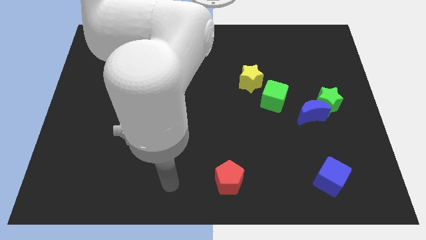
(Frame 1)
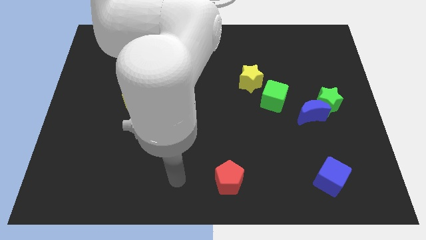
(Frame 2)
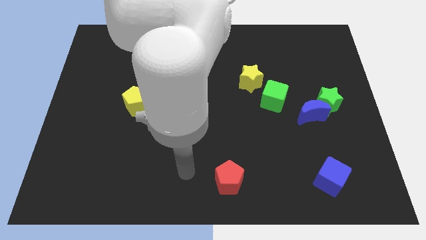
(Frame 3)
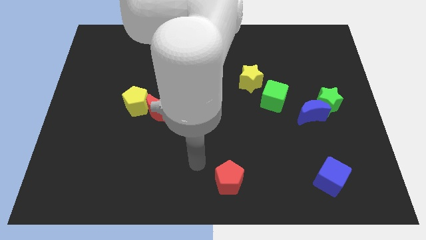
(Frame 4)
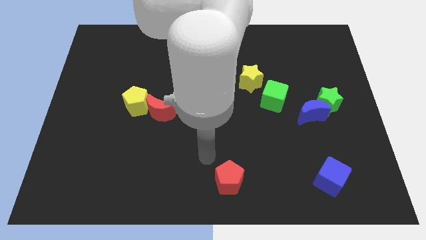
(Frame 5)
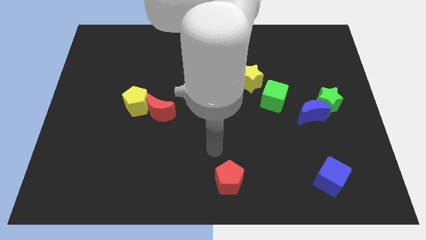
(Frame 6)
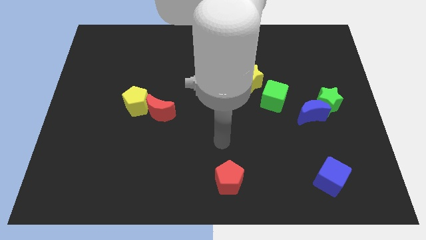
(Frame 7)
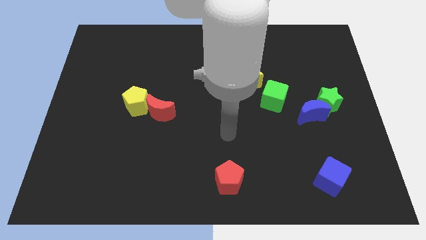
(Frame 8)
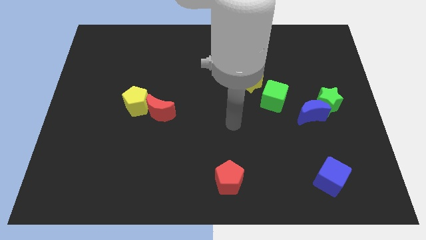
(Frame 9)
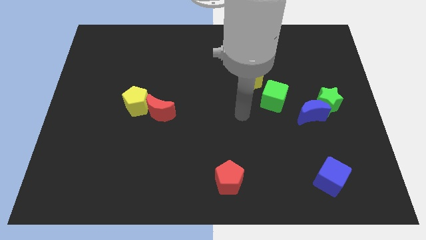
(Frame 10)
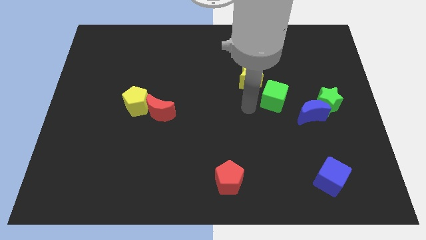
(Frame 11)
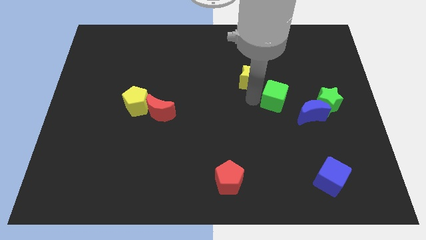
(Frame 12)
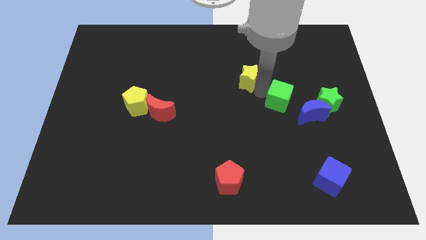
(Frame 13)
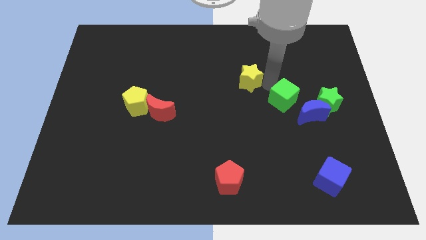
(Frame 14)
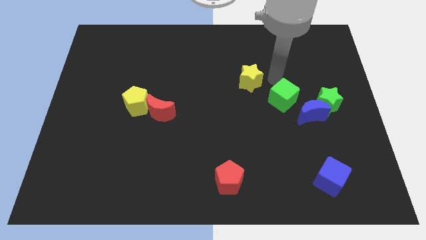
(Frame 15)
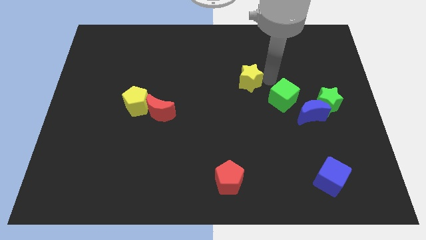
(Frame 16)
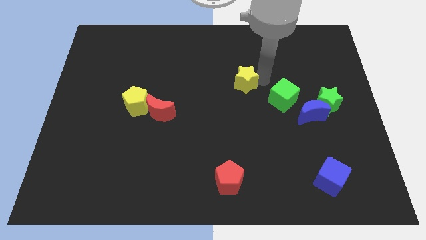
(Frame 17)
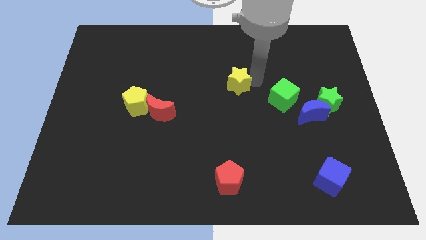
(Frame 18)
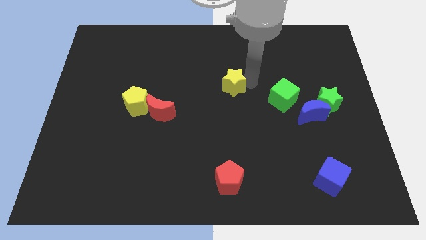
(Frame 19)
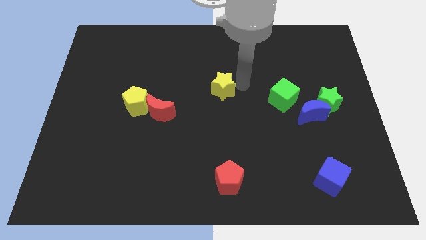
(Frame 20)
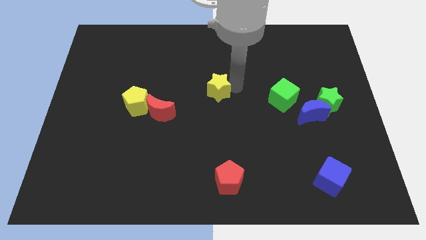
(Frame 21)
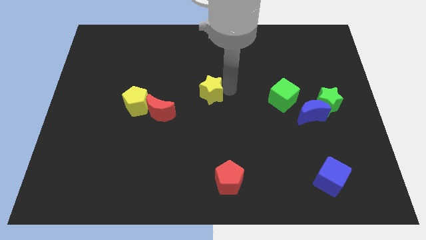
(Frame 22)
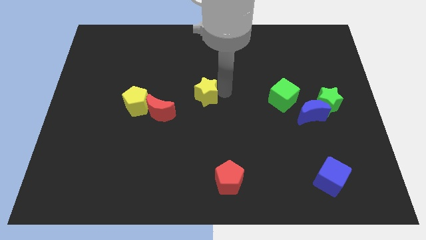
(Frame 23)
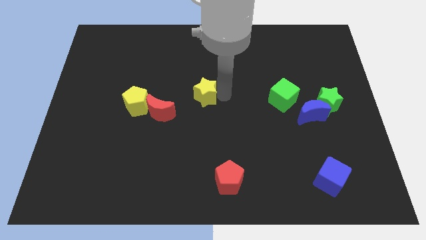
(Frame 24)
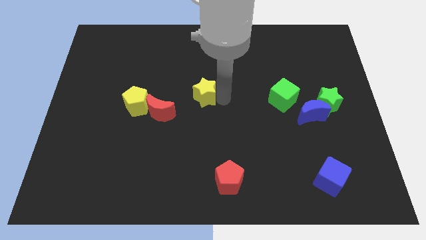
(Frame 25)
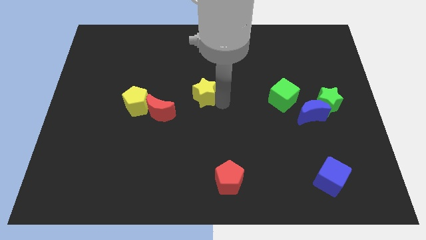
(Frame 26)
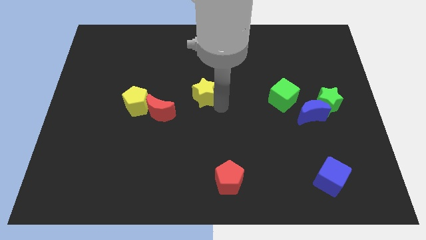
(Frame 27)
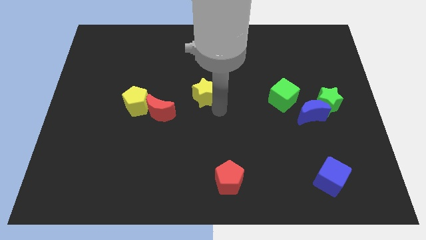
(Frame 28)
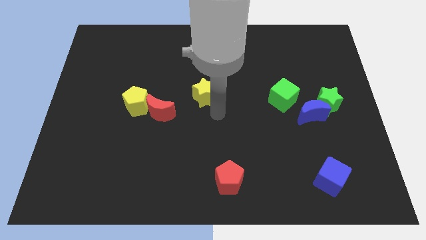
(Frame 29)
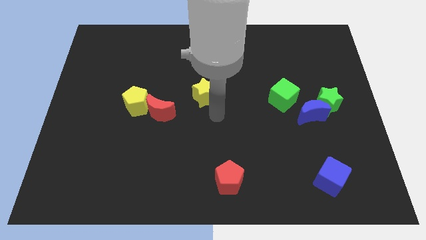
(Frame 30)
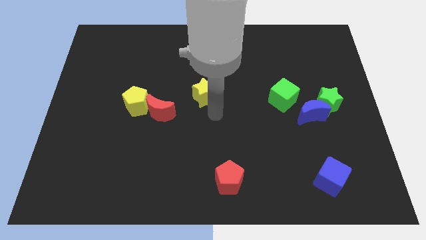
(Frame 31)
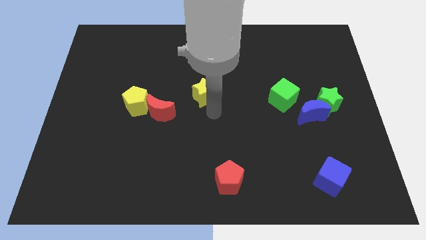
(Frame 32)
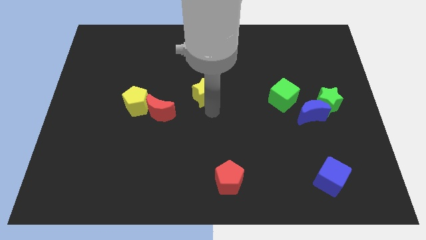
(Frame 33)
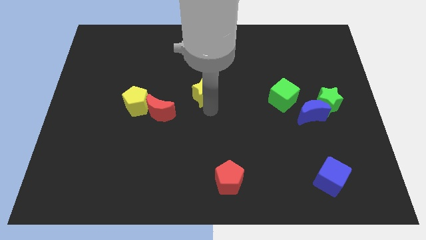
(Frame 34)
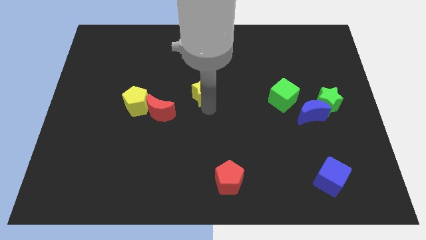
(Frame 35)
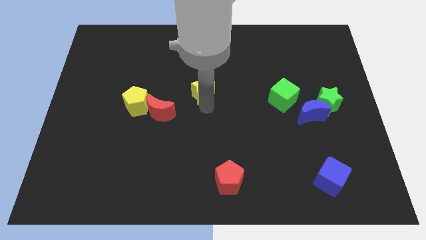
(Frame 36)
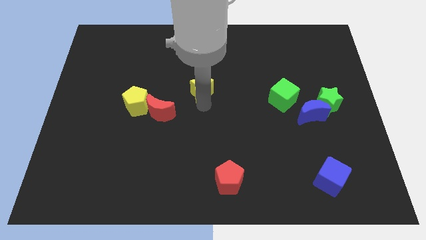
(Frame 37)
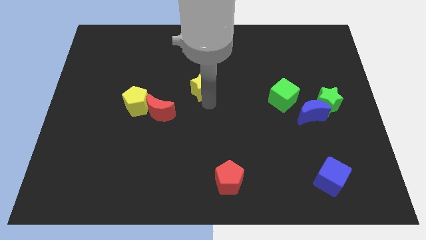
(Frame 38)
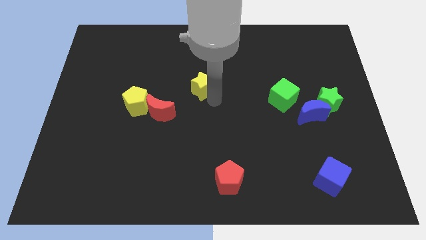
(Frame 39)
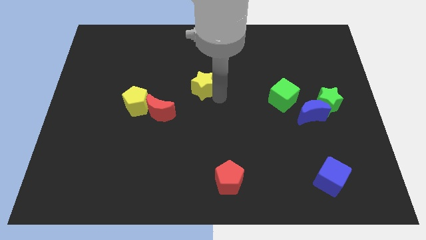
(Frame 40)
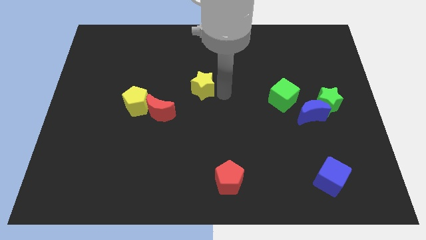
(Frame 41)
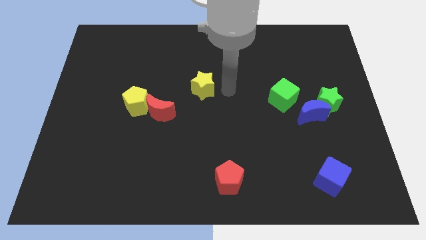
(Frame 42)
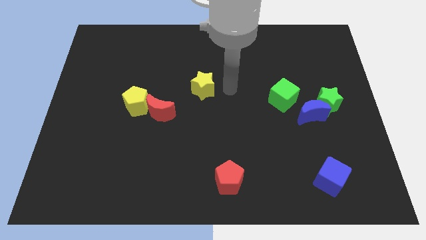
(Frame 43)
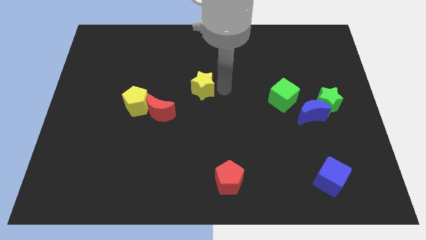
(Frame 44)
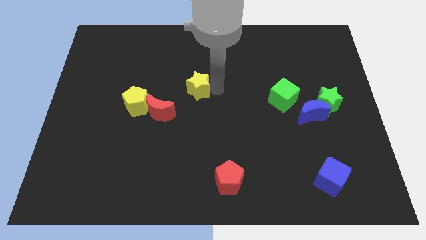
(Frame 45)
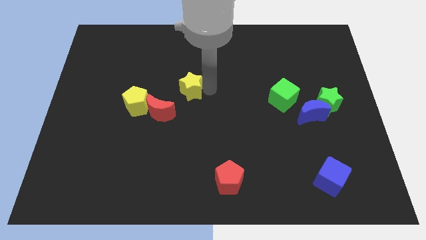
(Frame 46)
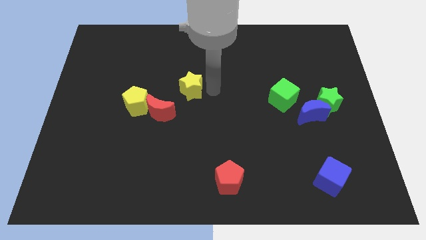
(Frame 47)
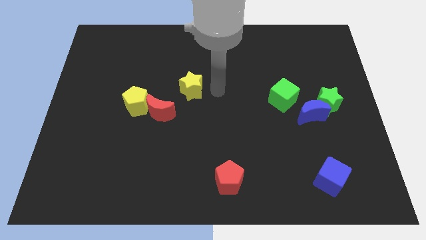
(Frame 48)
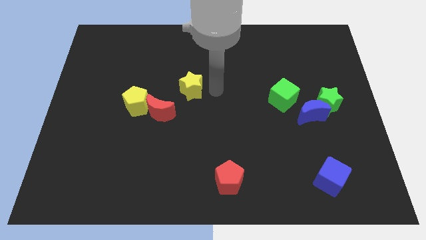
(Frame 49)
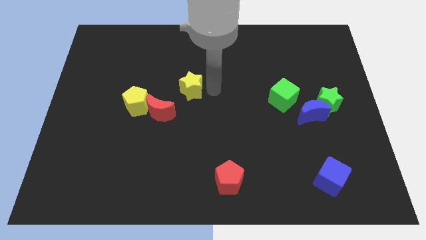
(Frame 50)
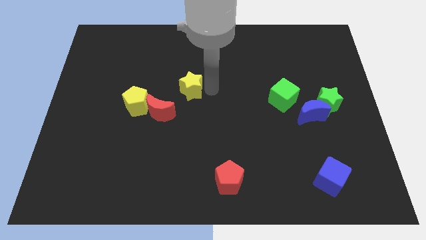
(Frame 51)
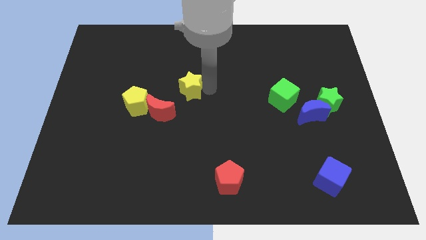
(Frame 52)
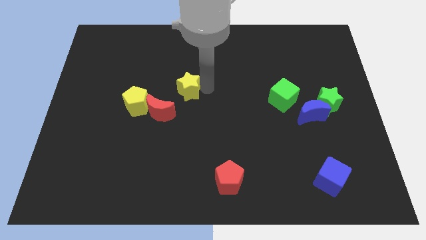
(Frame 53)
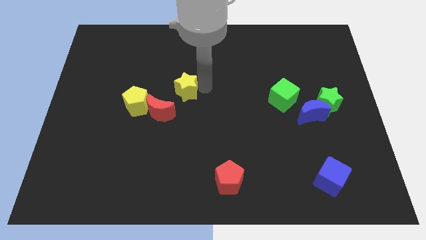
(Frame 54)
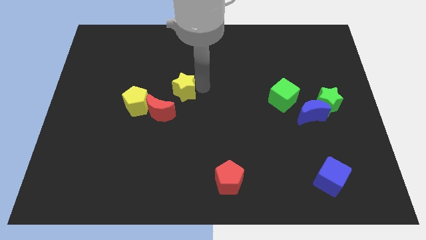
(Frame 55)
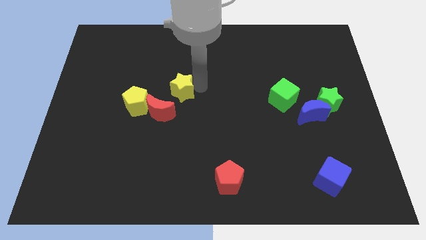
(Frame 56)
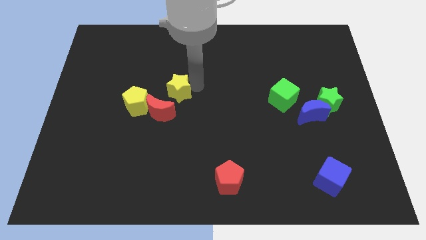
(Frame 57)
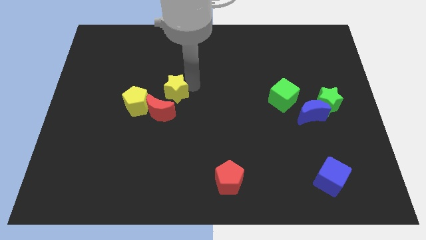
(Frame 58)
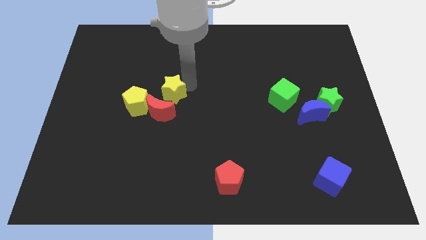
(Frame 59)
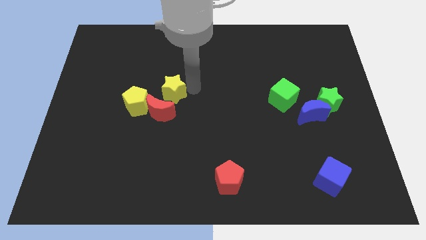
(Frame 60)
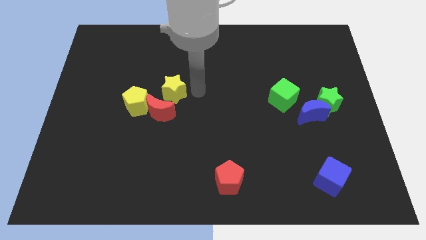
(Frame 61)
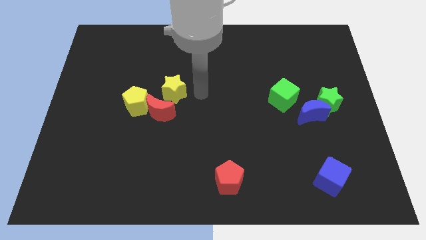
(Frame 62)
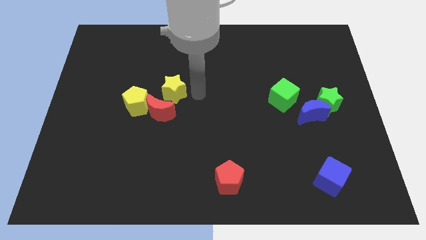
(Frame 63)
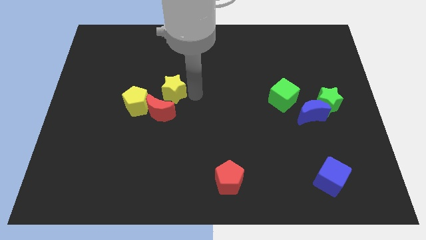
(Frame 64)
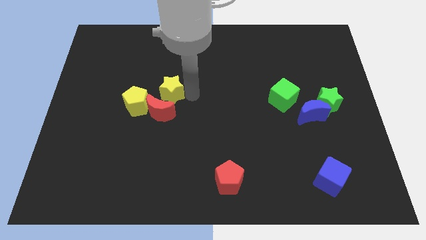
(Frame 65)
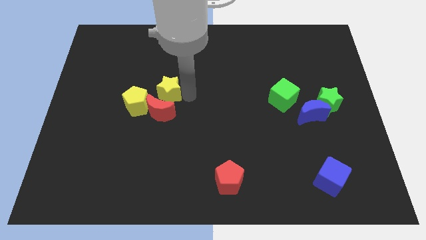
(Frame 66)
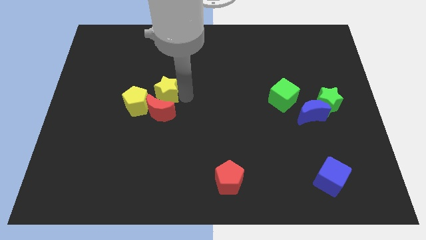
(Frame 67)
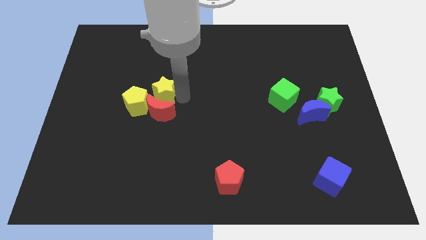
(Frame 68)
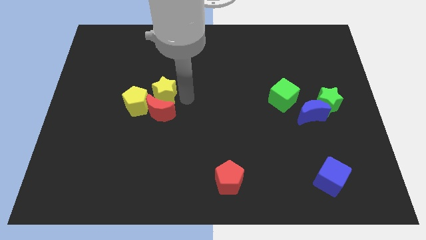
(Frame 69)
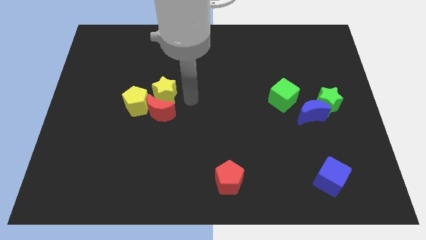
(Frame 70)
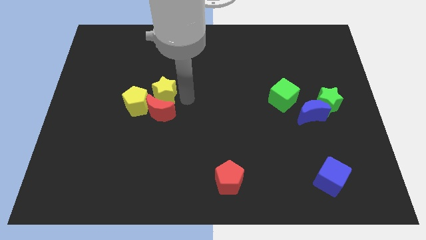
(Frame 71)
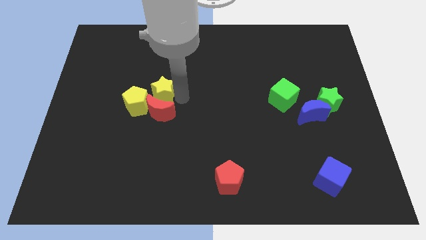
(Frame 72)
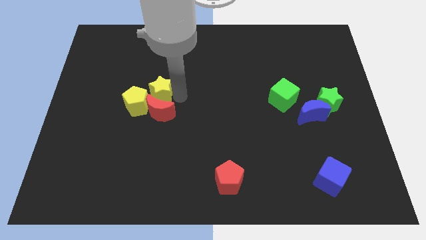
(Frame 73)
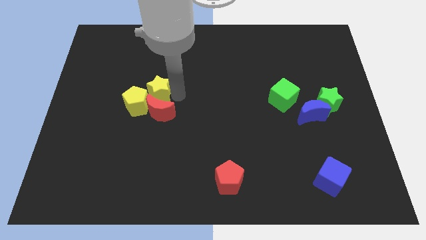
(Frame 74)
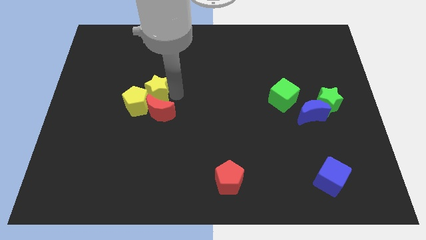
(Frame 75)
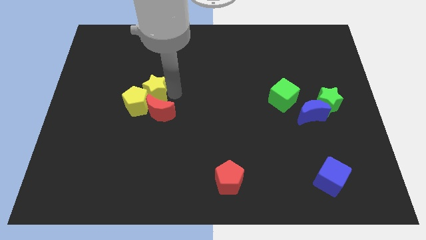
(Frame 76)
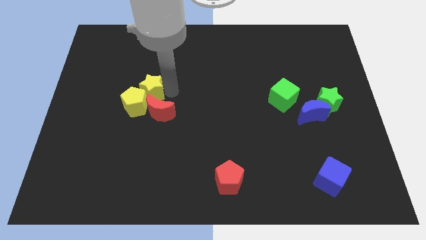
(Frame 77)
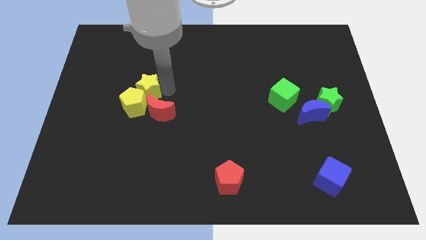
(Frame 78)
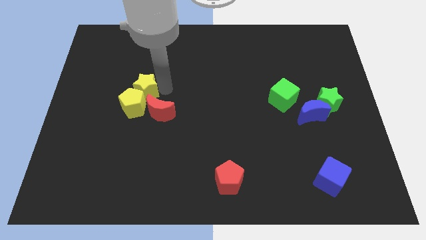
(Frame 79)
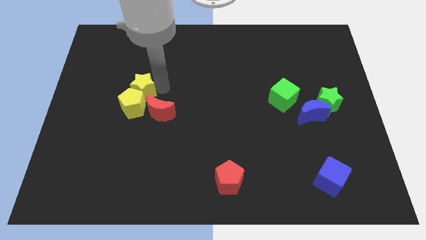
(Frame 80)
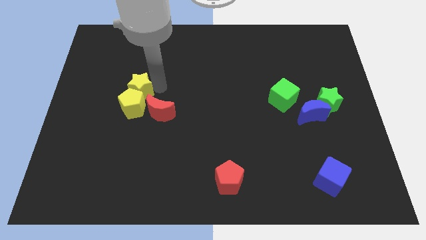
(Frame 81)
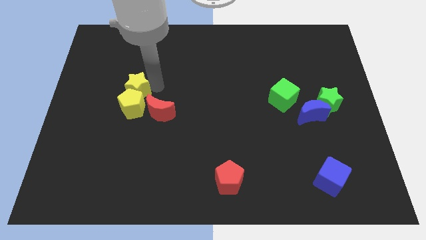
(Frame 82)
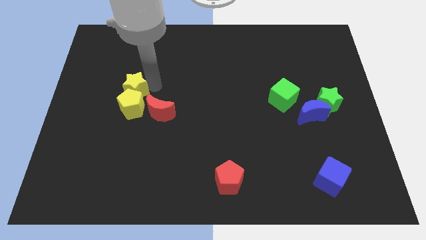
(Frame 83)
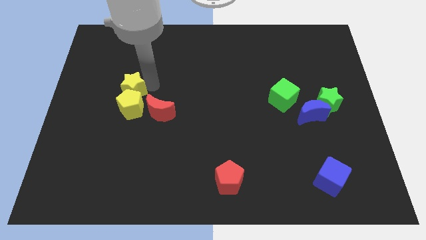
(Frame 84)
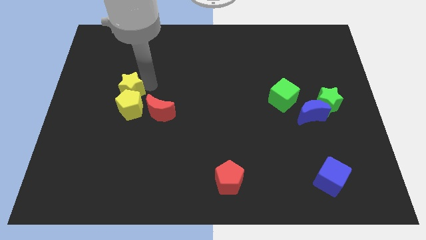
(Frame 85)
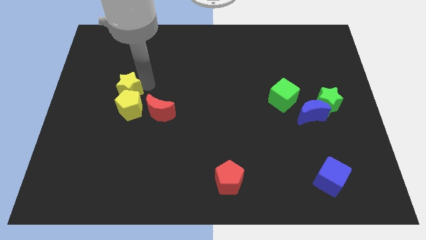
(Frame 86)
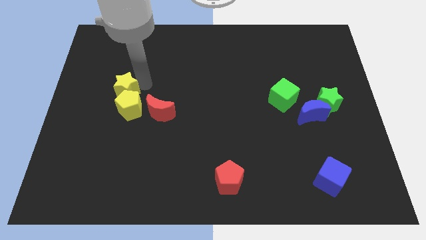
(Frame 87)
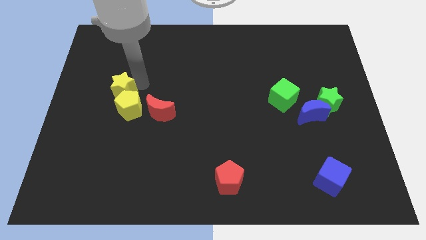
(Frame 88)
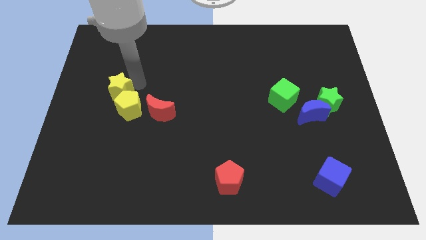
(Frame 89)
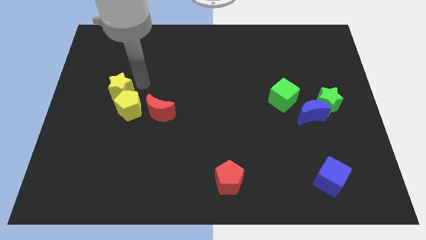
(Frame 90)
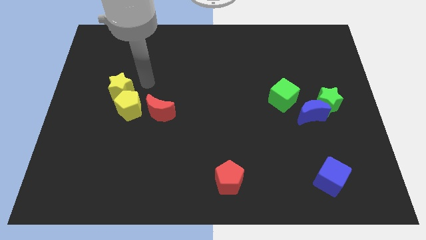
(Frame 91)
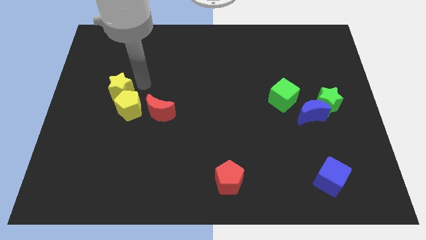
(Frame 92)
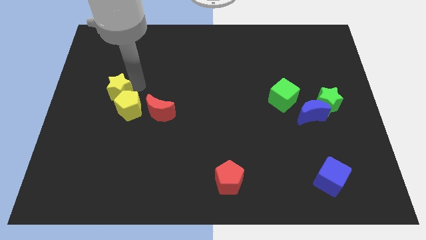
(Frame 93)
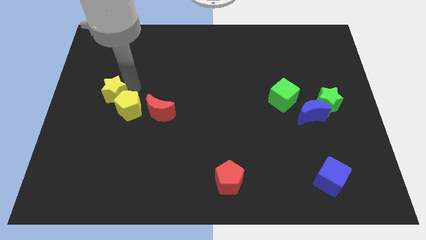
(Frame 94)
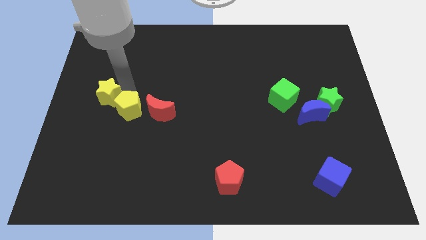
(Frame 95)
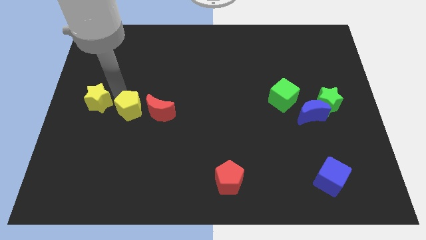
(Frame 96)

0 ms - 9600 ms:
move the yellow star to the left side of the board
